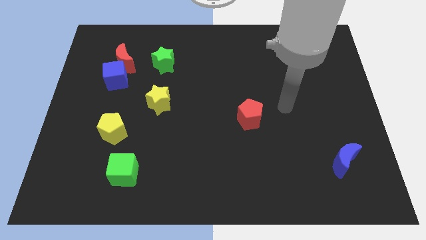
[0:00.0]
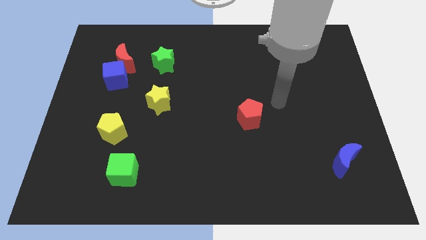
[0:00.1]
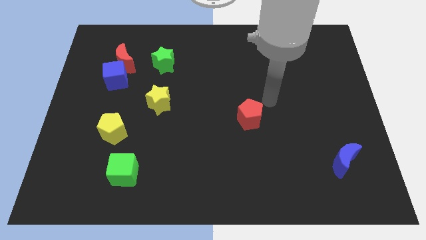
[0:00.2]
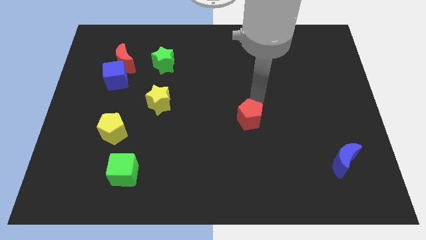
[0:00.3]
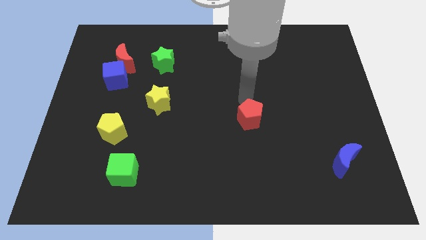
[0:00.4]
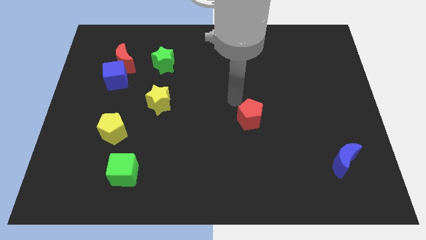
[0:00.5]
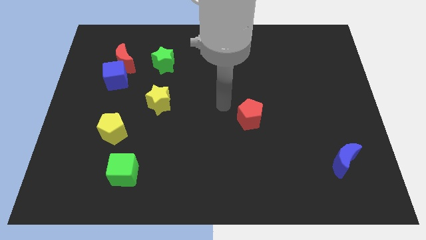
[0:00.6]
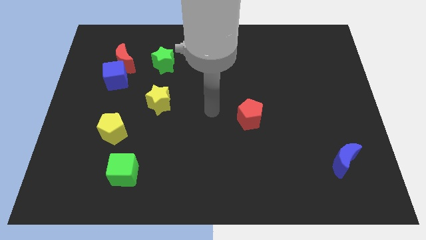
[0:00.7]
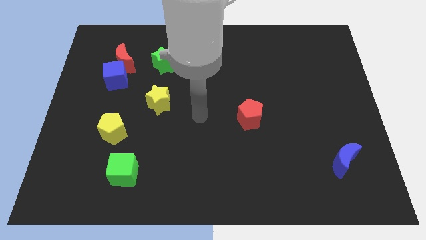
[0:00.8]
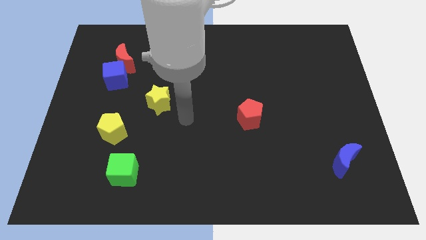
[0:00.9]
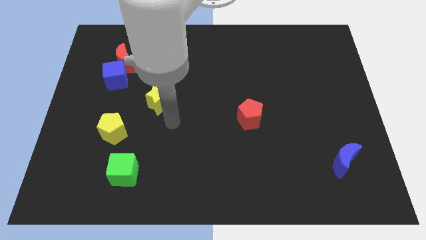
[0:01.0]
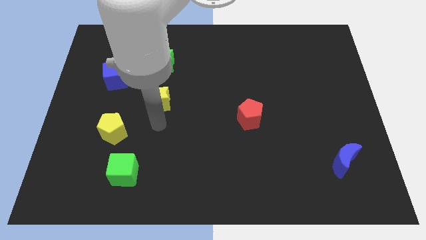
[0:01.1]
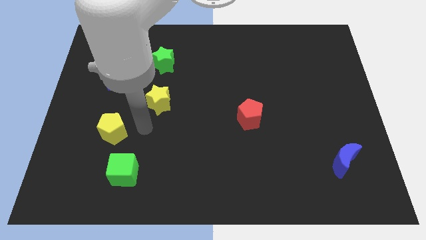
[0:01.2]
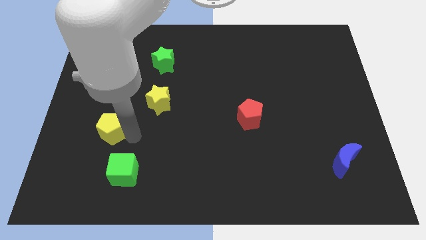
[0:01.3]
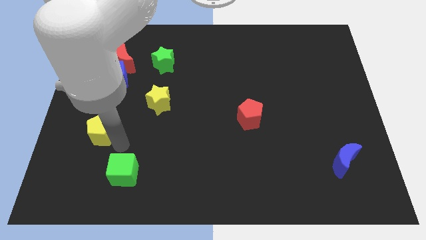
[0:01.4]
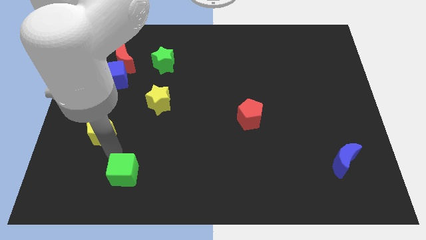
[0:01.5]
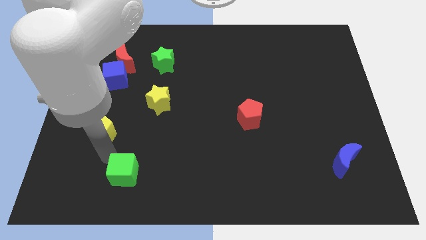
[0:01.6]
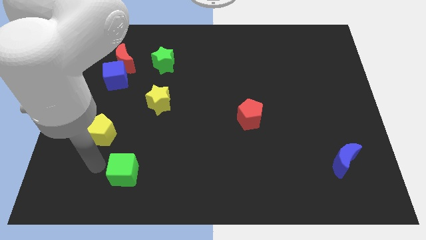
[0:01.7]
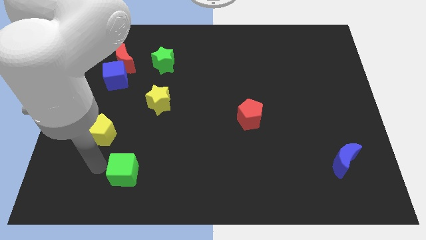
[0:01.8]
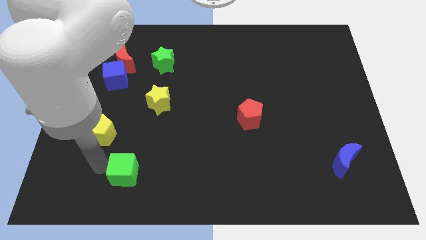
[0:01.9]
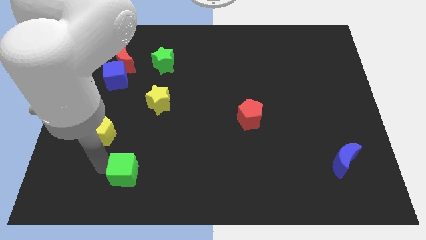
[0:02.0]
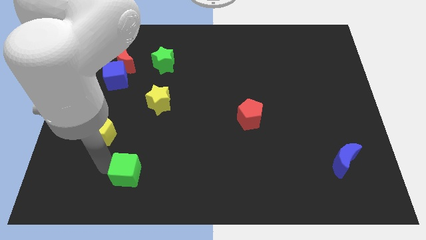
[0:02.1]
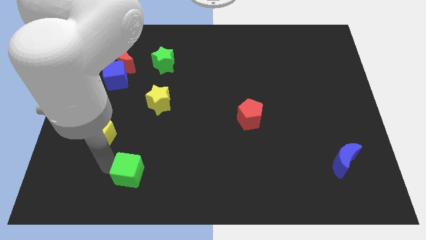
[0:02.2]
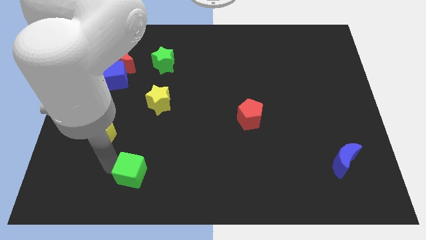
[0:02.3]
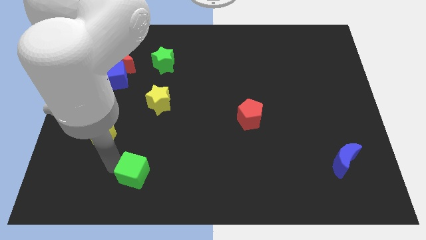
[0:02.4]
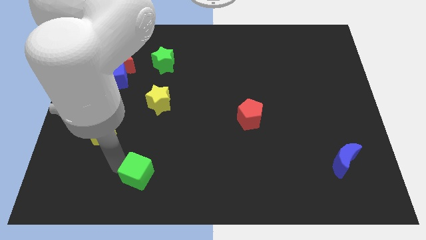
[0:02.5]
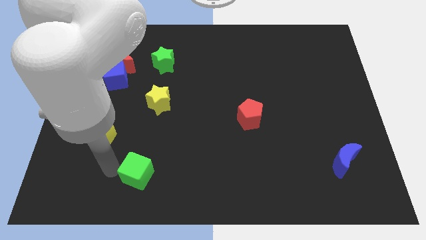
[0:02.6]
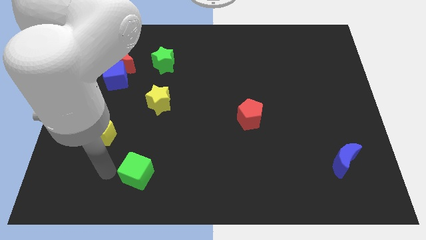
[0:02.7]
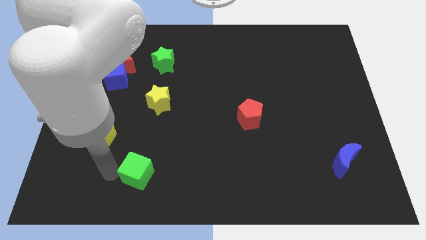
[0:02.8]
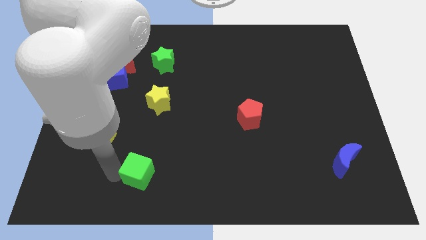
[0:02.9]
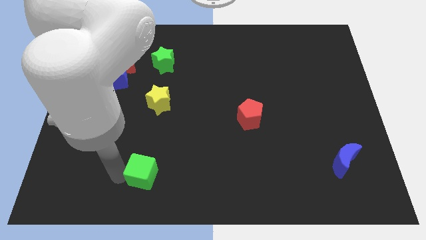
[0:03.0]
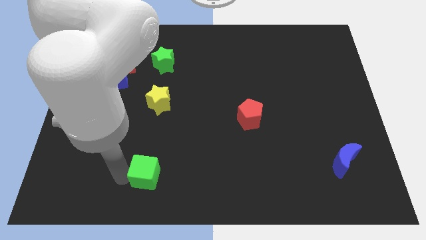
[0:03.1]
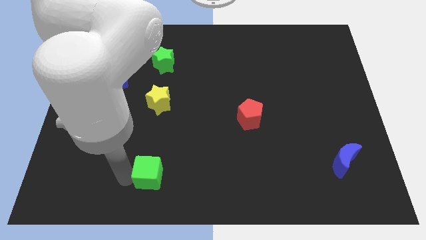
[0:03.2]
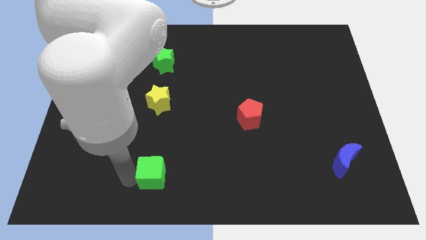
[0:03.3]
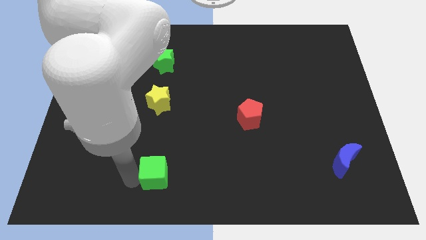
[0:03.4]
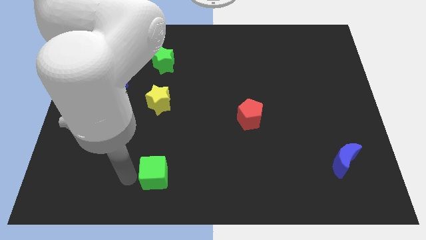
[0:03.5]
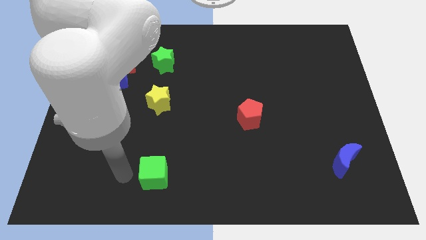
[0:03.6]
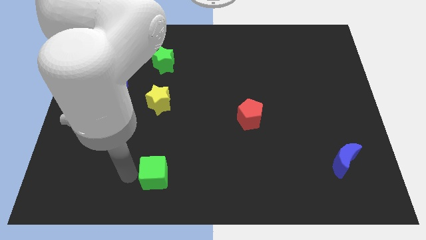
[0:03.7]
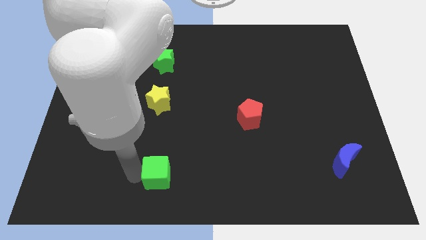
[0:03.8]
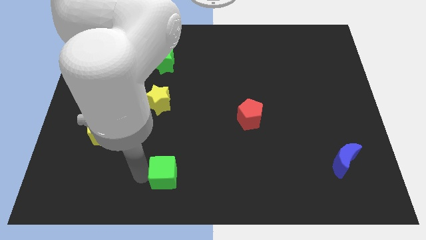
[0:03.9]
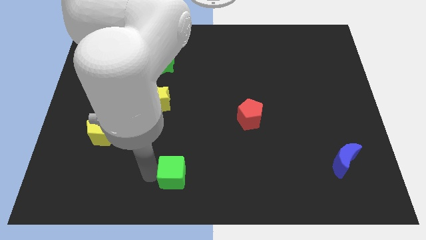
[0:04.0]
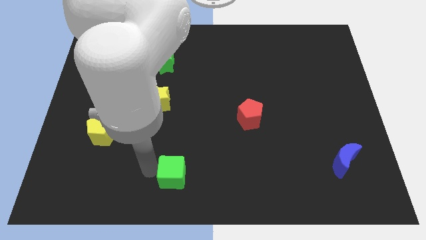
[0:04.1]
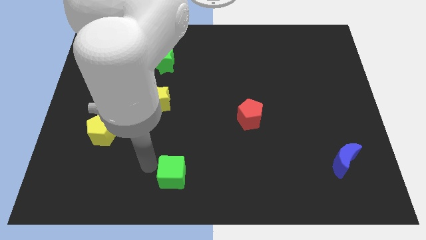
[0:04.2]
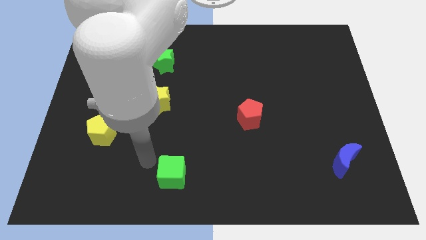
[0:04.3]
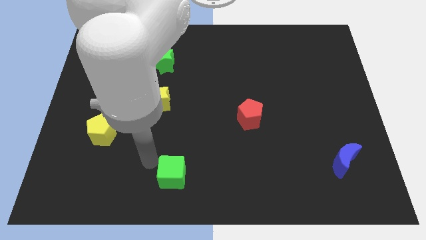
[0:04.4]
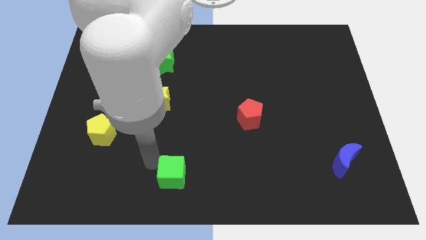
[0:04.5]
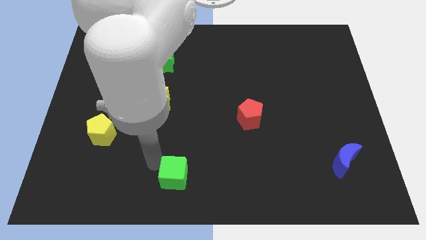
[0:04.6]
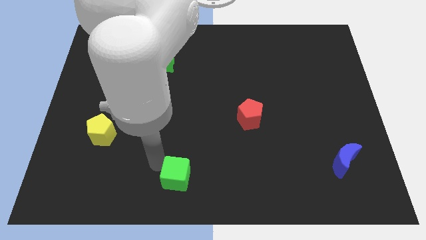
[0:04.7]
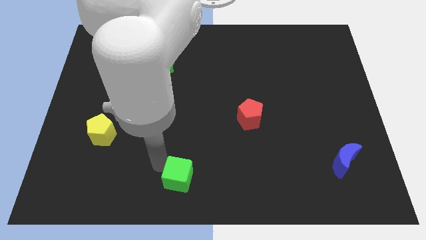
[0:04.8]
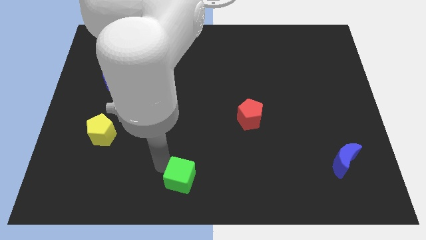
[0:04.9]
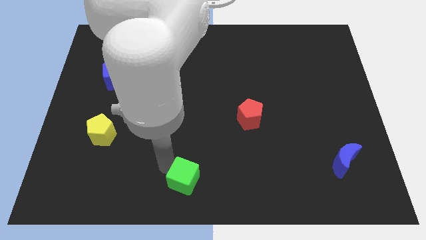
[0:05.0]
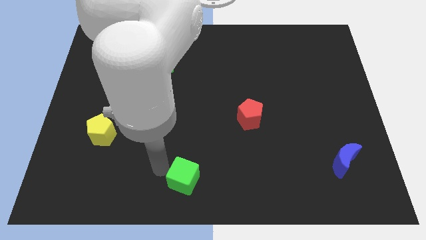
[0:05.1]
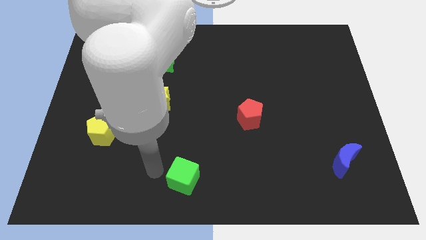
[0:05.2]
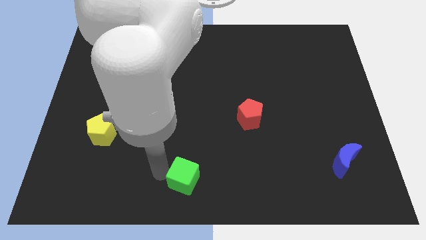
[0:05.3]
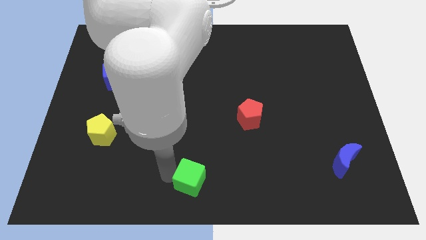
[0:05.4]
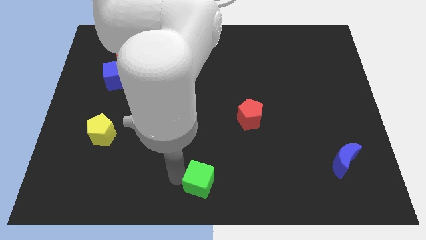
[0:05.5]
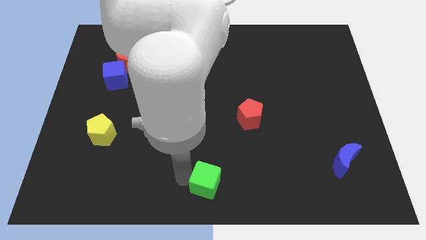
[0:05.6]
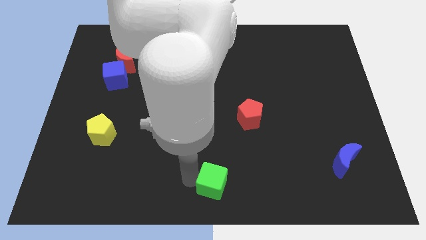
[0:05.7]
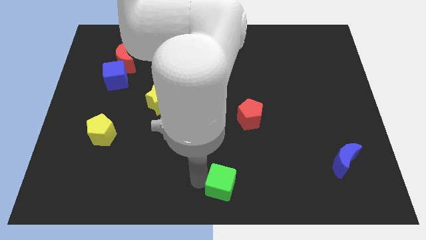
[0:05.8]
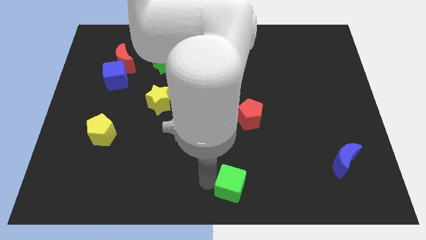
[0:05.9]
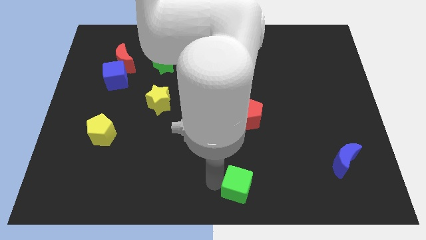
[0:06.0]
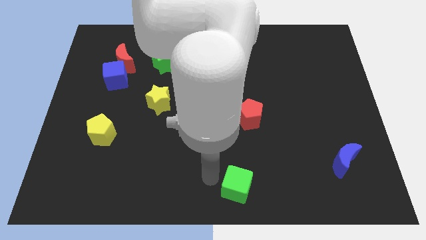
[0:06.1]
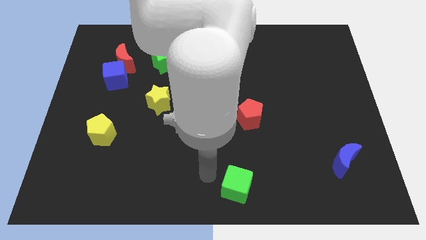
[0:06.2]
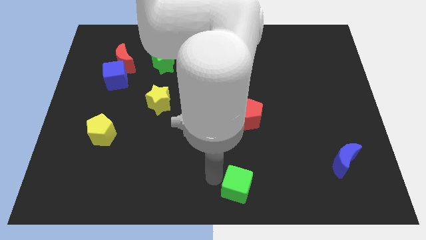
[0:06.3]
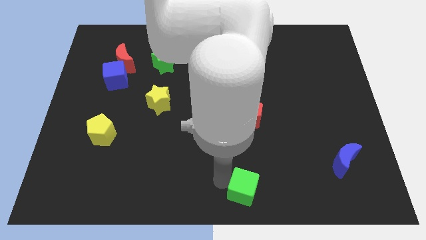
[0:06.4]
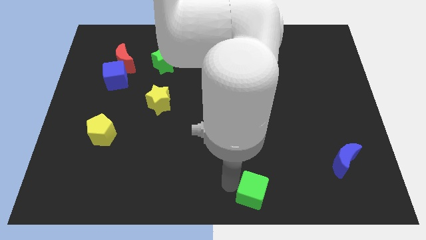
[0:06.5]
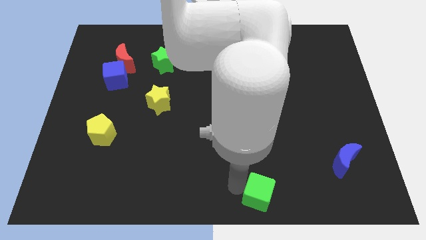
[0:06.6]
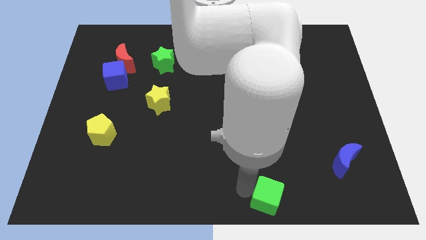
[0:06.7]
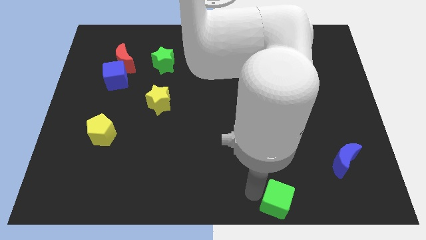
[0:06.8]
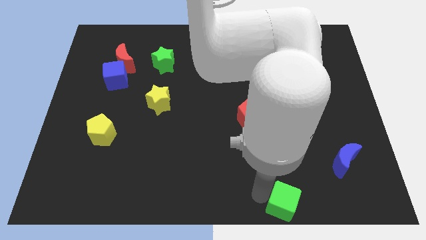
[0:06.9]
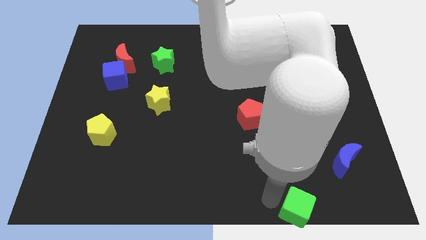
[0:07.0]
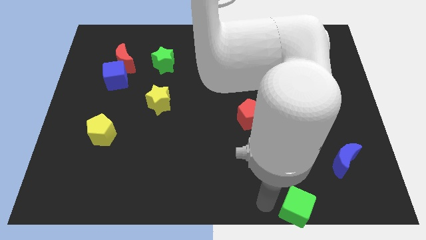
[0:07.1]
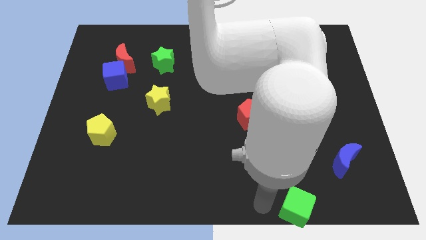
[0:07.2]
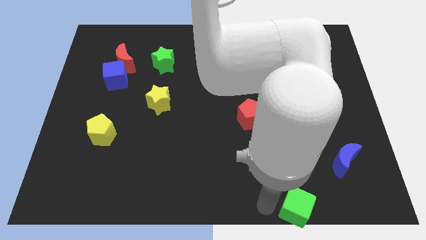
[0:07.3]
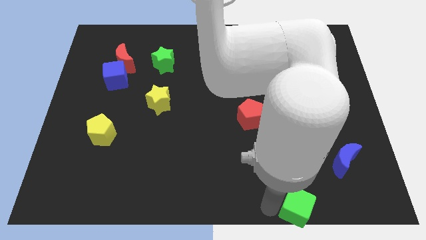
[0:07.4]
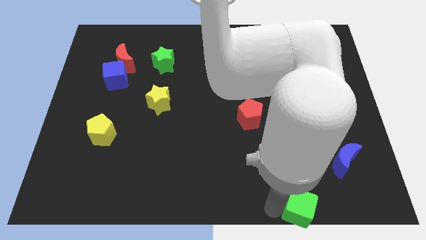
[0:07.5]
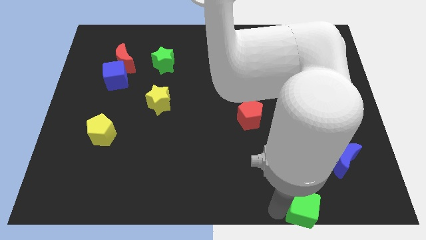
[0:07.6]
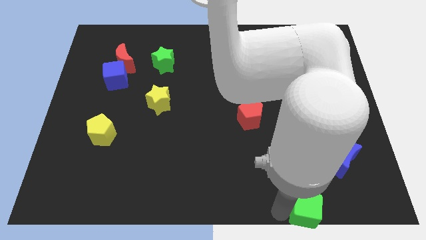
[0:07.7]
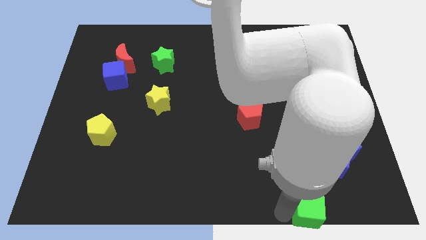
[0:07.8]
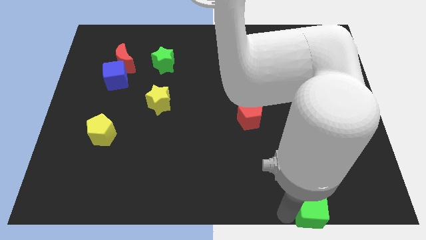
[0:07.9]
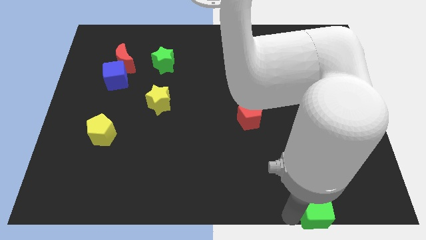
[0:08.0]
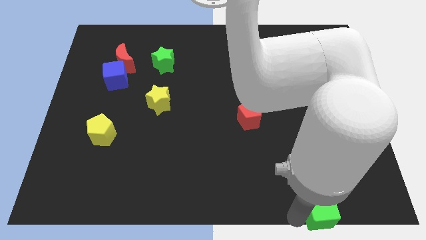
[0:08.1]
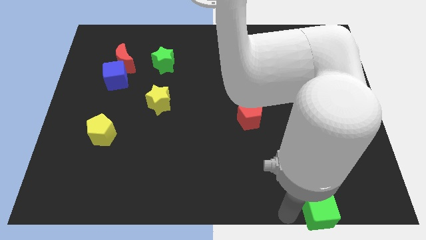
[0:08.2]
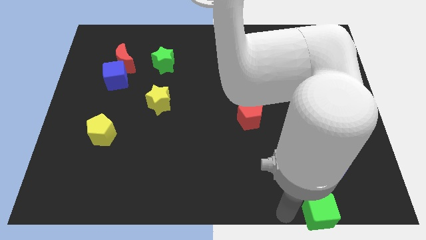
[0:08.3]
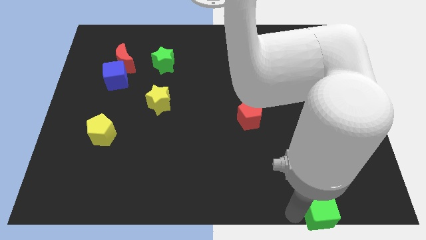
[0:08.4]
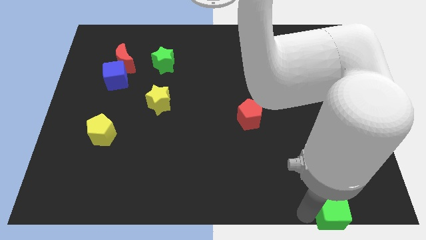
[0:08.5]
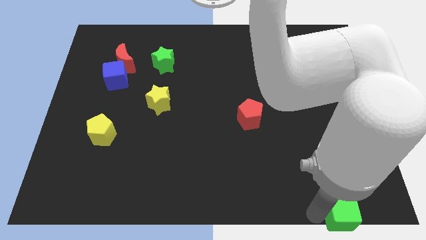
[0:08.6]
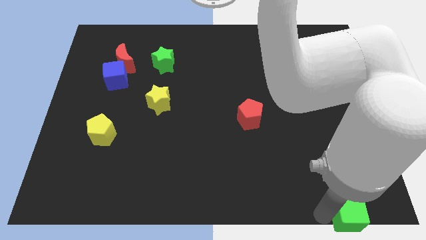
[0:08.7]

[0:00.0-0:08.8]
slide the green cube to the lower right corner
